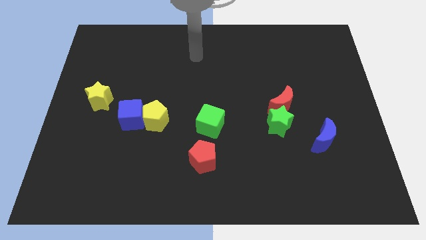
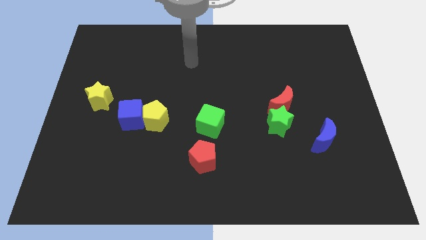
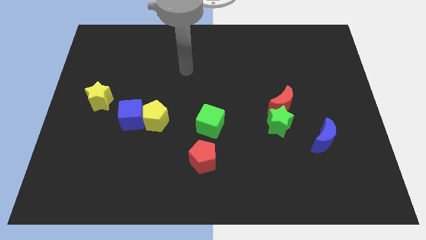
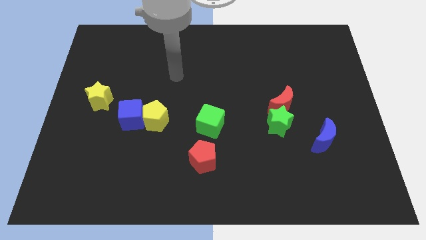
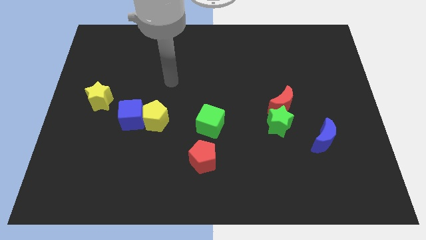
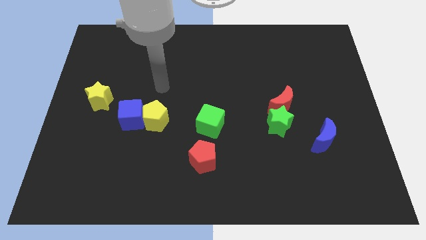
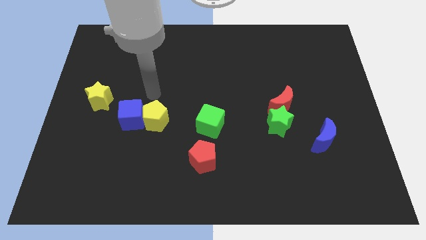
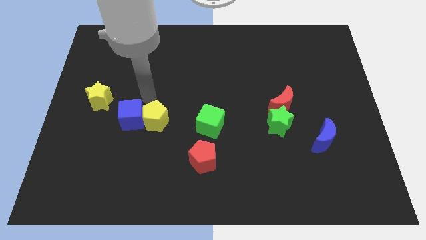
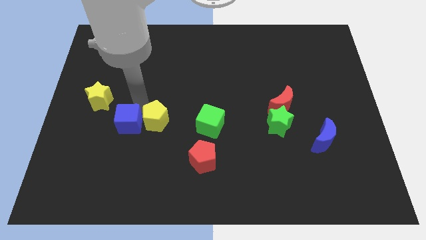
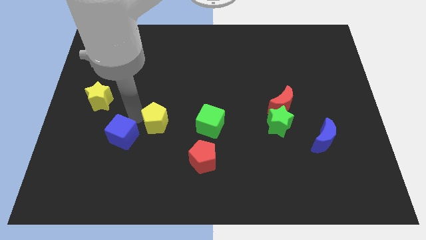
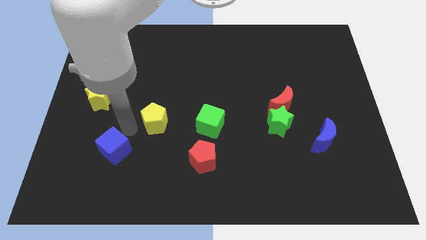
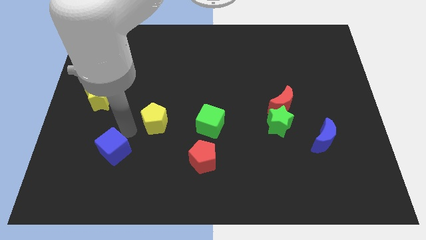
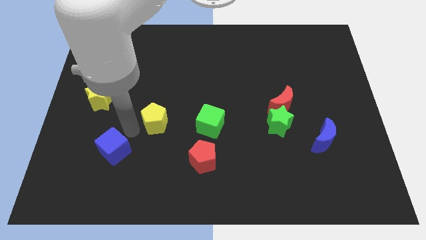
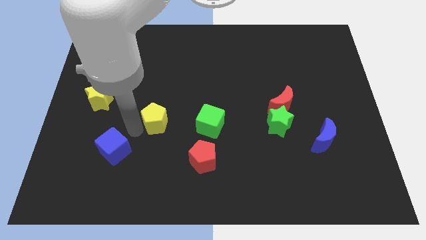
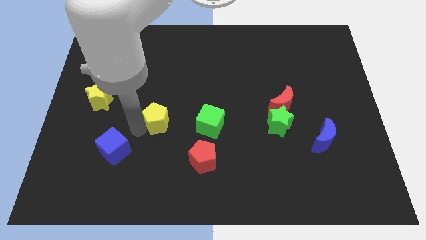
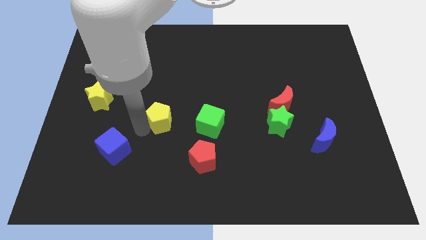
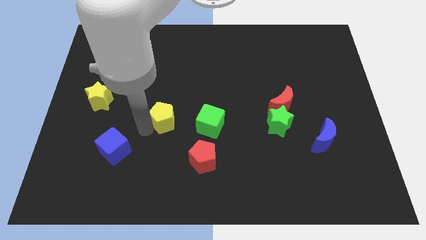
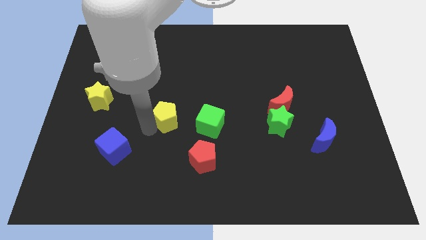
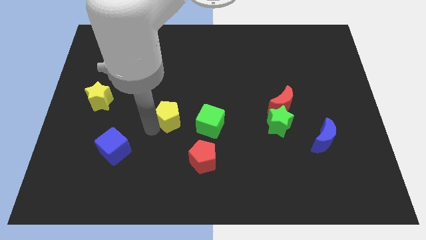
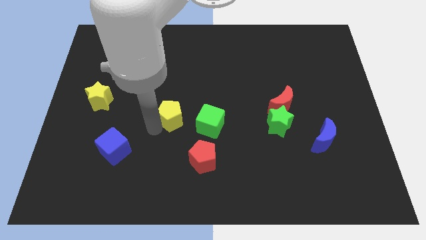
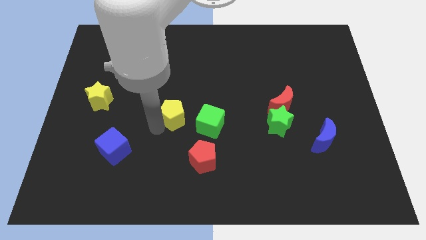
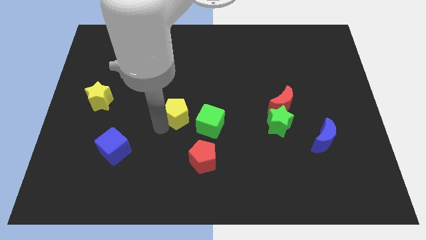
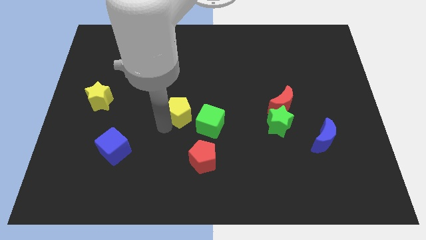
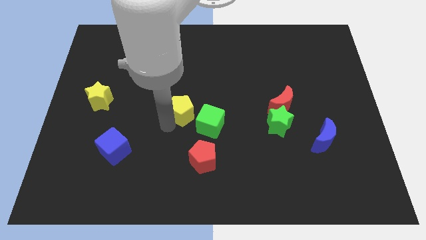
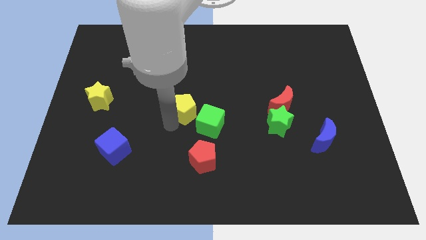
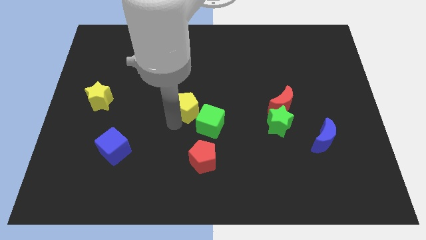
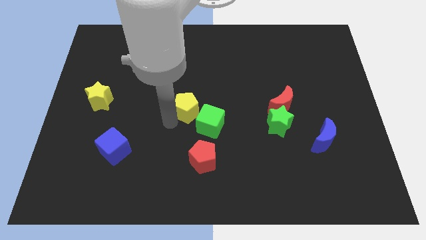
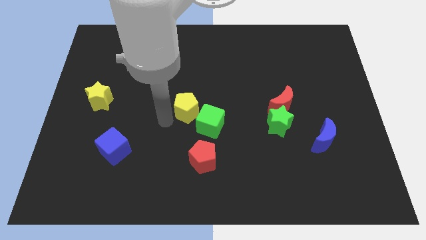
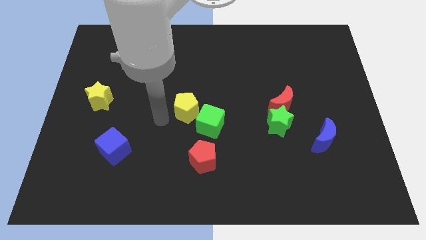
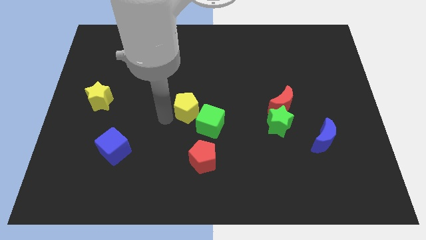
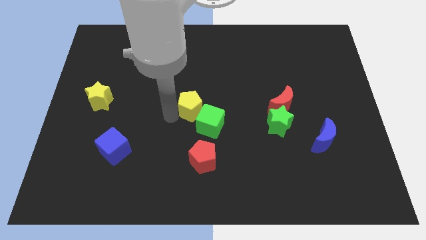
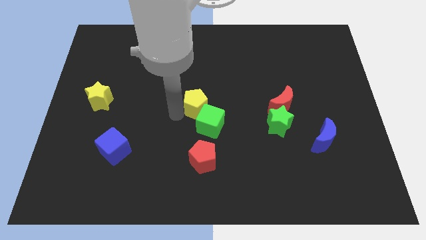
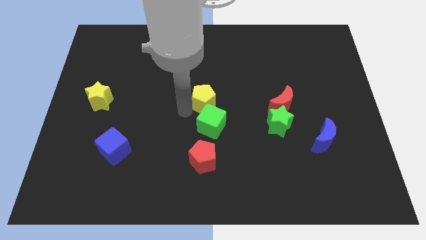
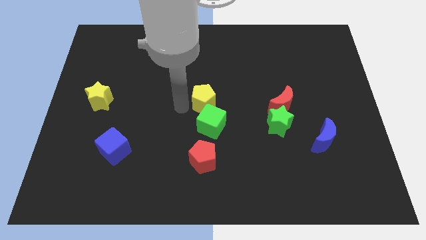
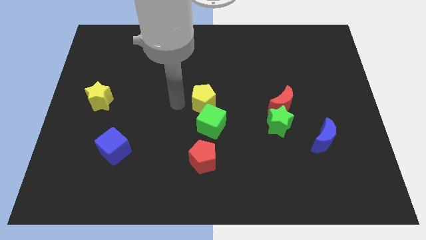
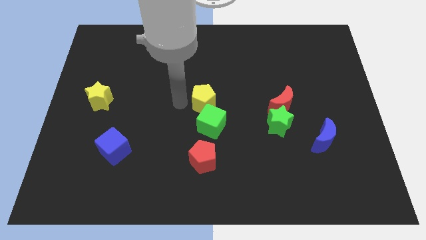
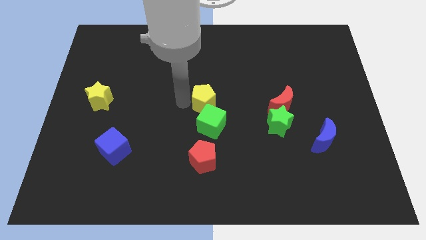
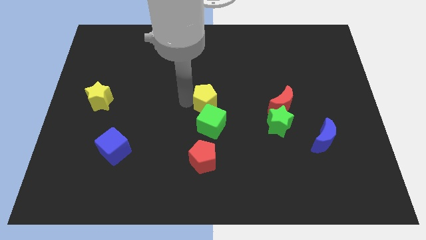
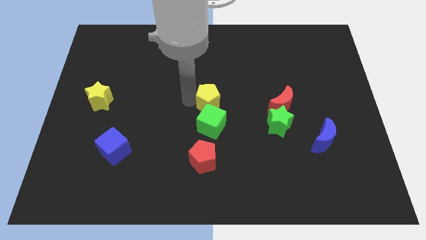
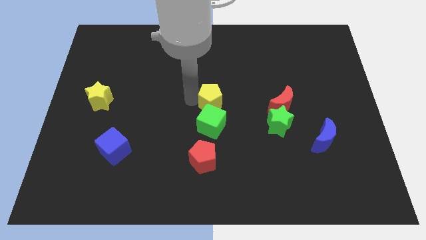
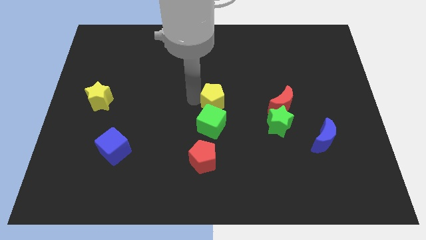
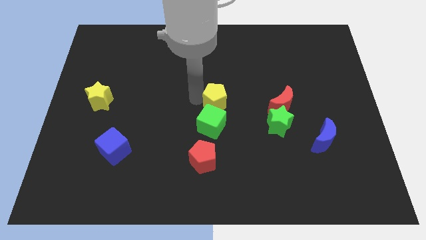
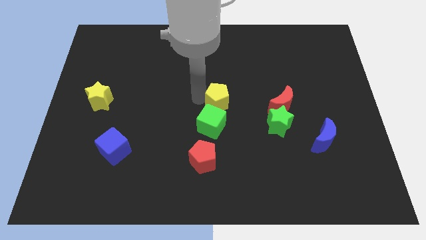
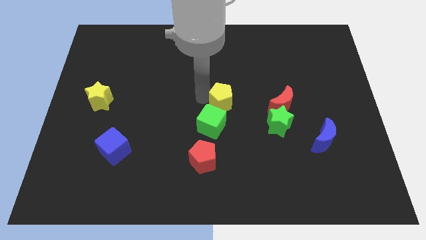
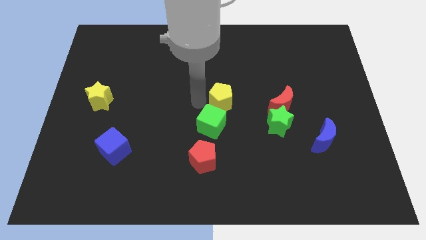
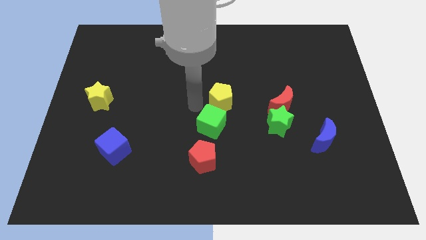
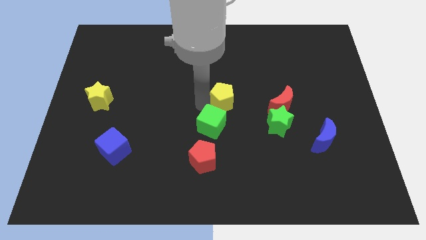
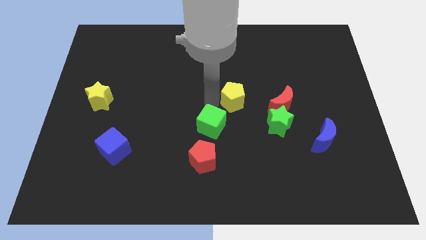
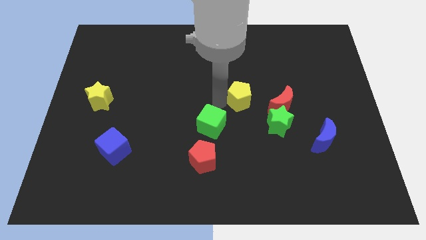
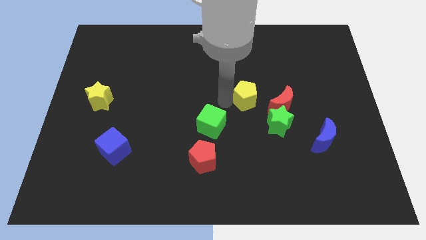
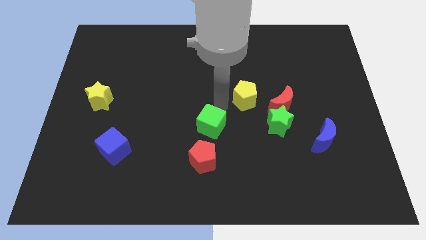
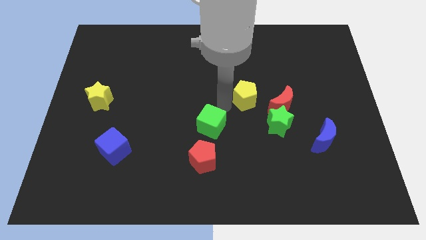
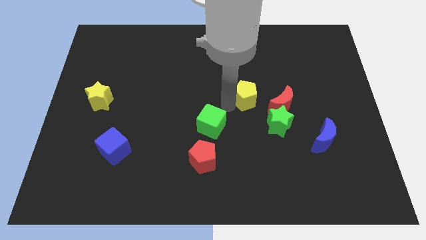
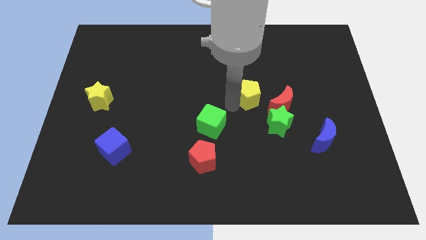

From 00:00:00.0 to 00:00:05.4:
slide the yellow pentagon to the right

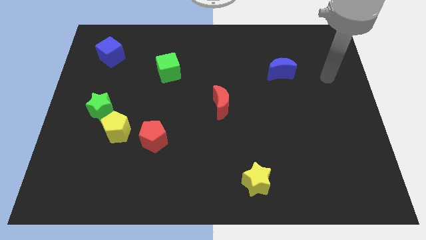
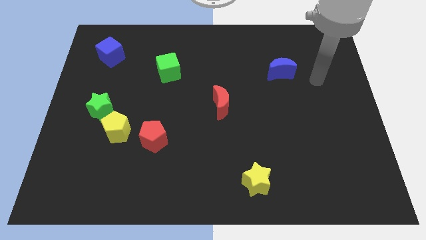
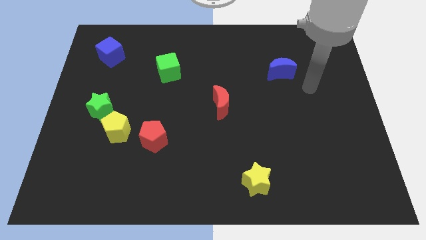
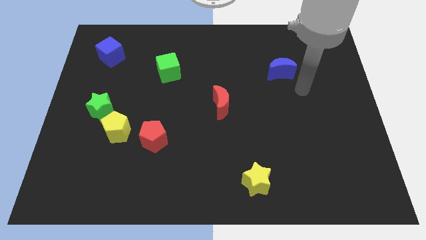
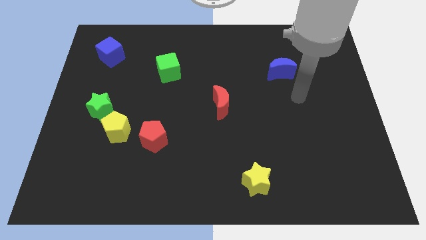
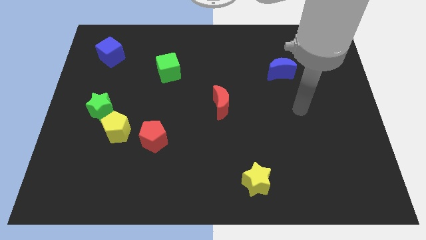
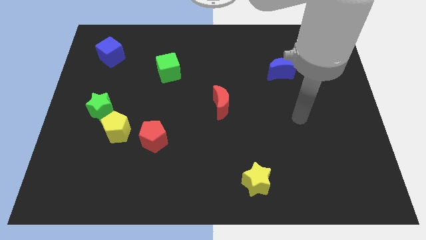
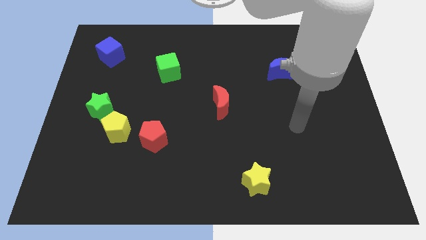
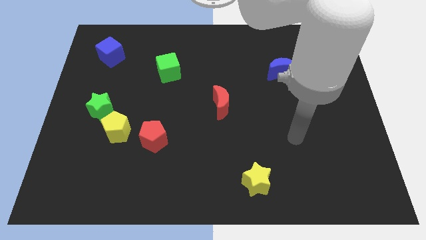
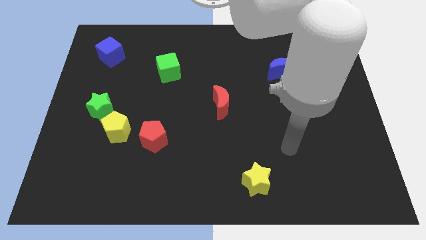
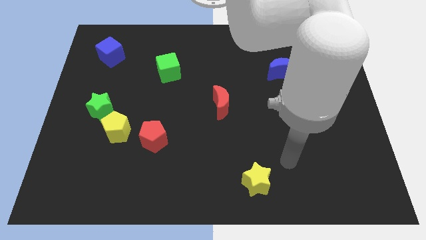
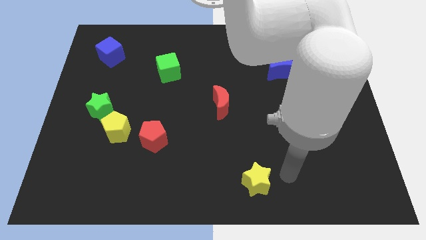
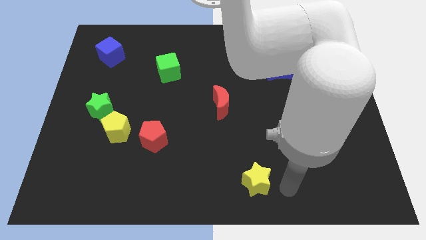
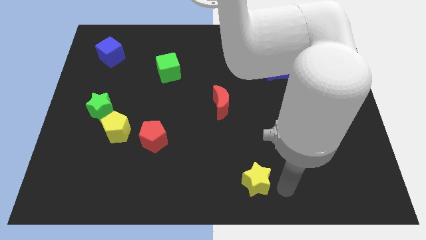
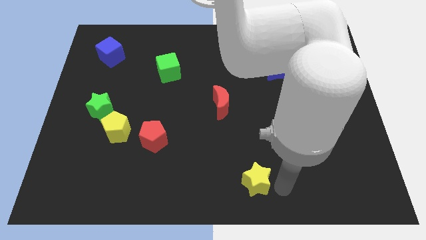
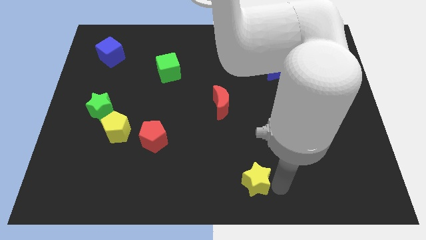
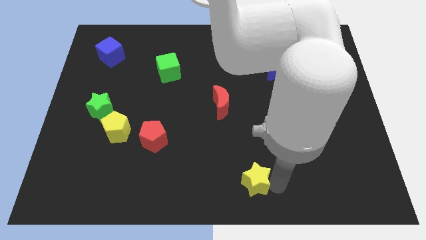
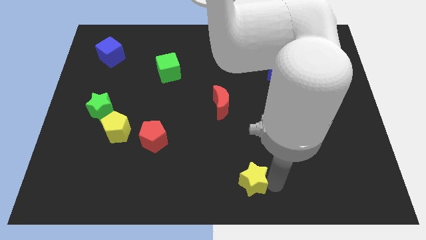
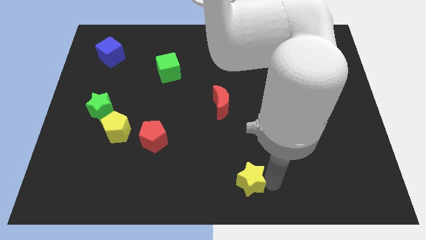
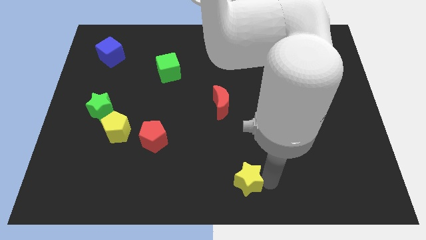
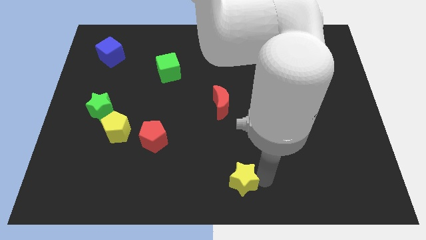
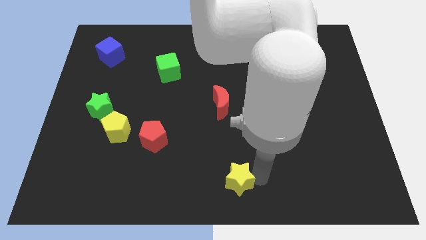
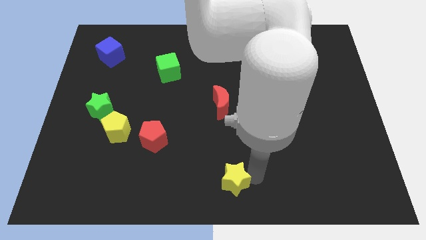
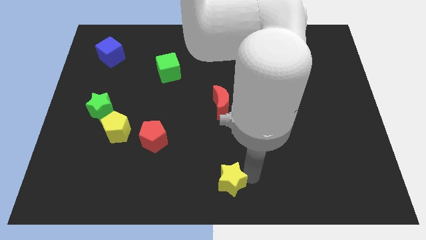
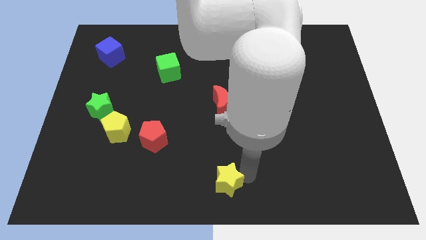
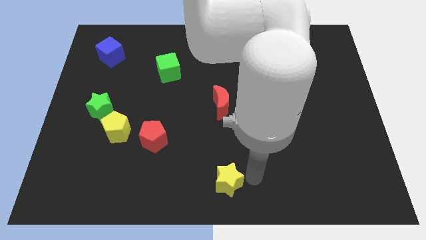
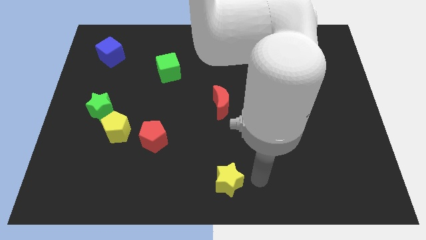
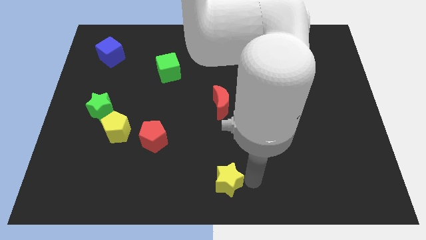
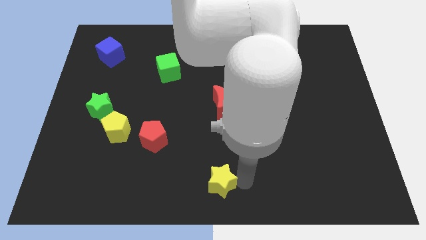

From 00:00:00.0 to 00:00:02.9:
slide the yellow star a little bit to the left
